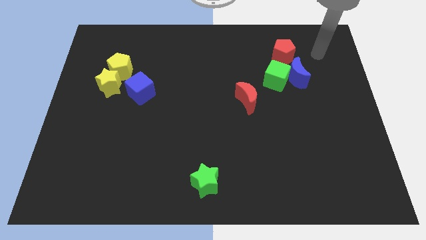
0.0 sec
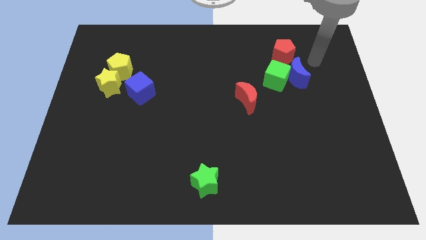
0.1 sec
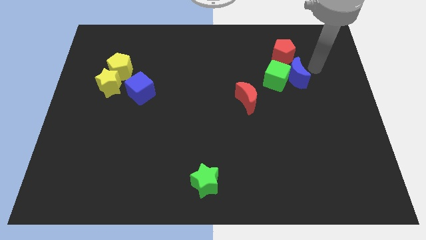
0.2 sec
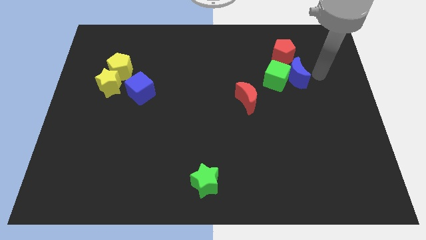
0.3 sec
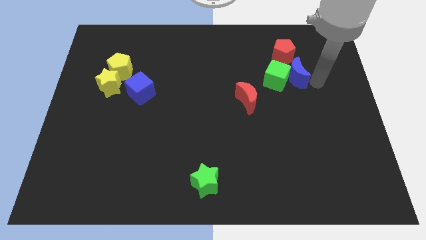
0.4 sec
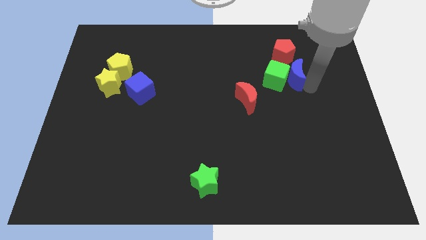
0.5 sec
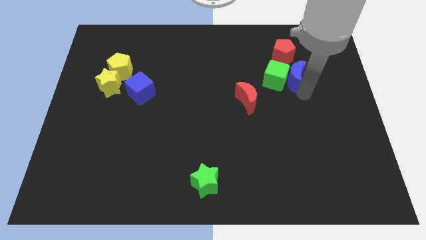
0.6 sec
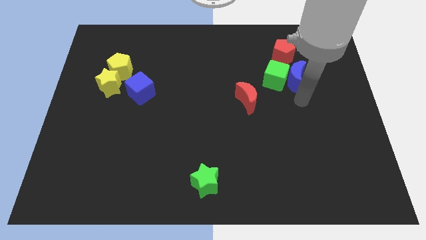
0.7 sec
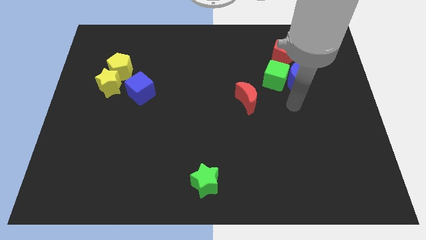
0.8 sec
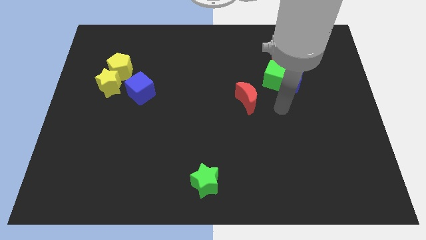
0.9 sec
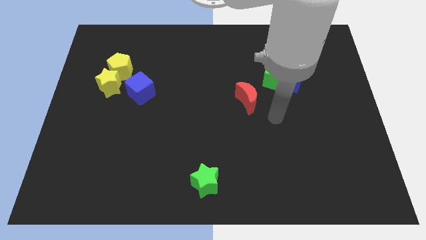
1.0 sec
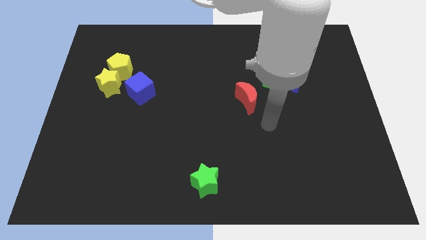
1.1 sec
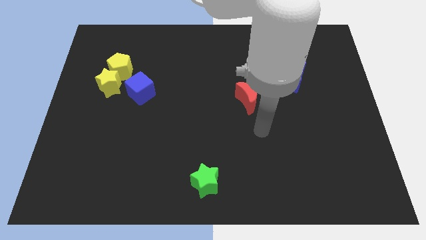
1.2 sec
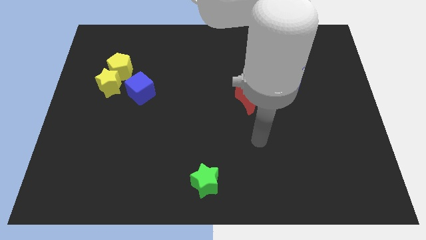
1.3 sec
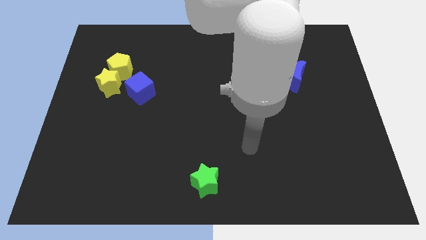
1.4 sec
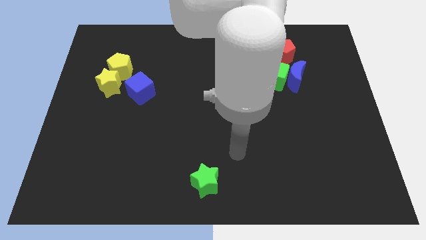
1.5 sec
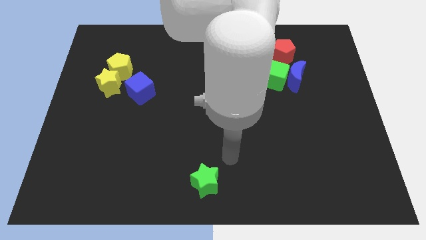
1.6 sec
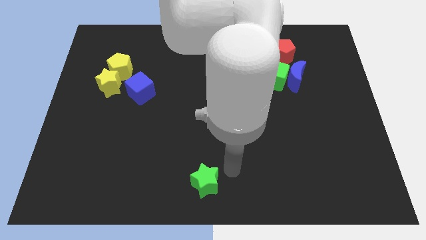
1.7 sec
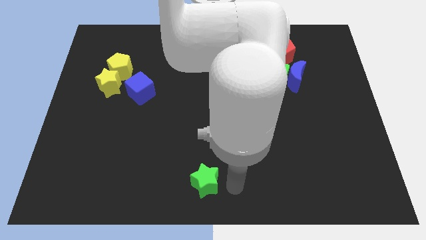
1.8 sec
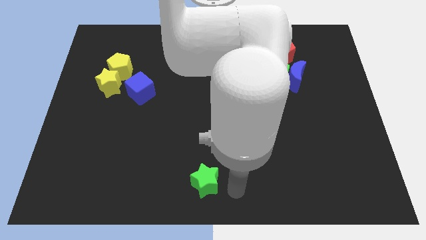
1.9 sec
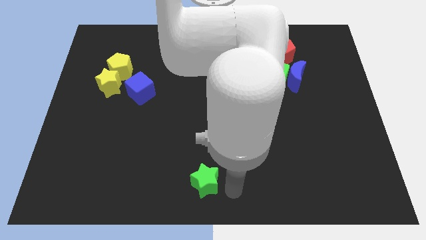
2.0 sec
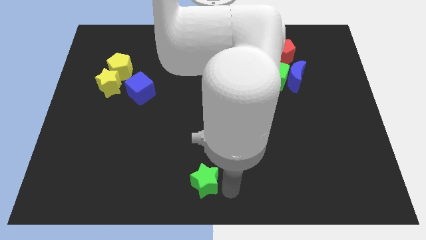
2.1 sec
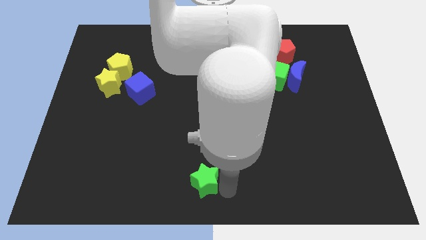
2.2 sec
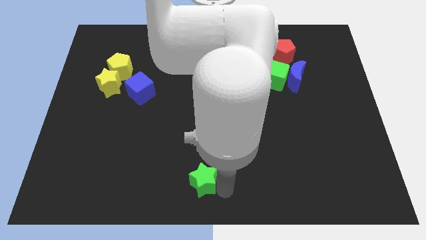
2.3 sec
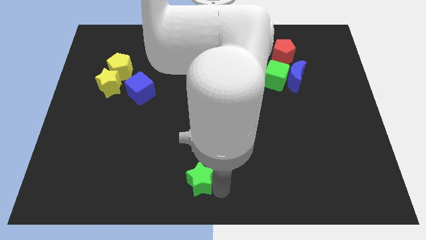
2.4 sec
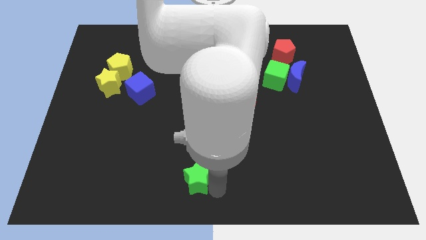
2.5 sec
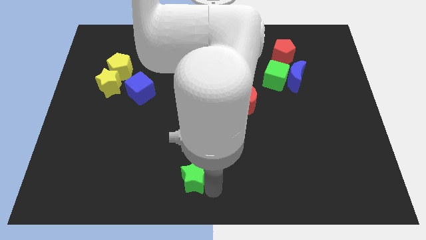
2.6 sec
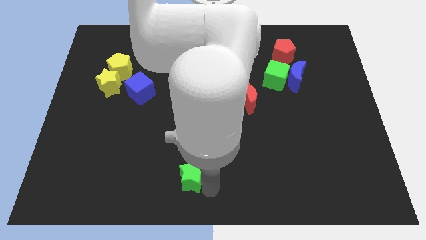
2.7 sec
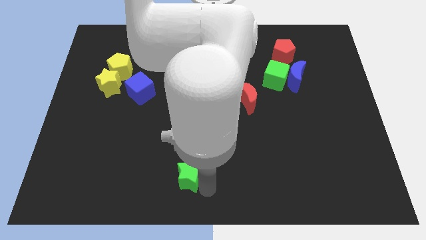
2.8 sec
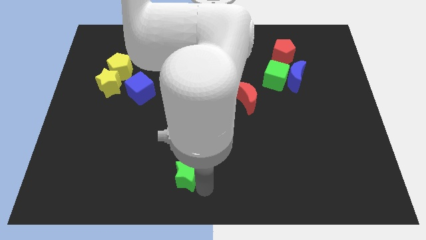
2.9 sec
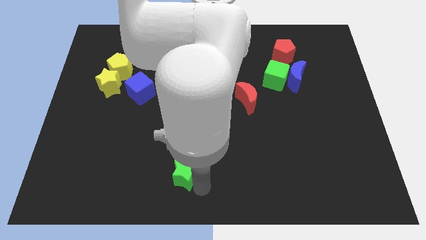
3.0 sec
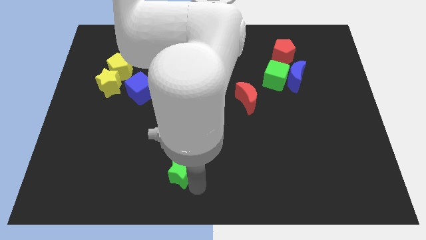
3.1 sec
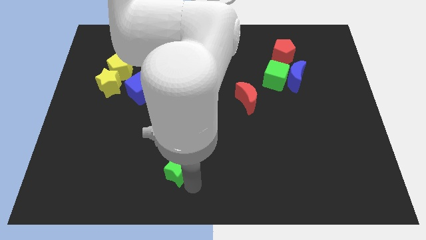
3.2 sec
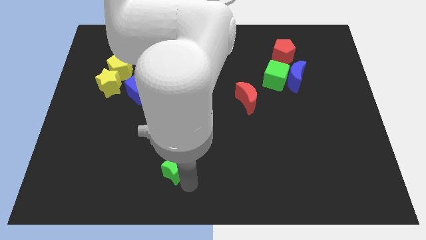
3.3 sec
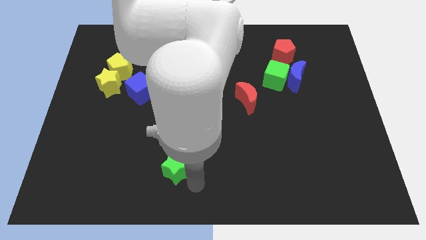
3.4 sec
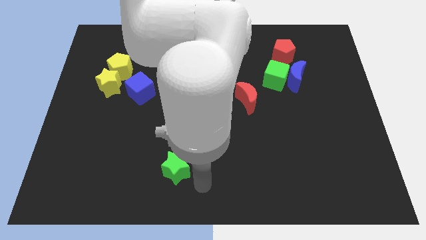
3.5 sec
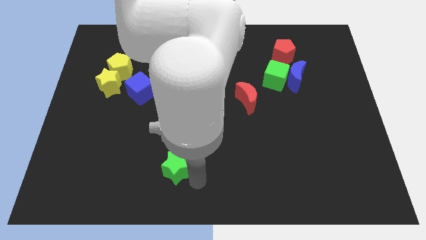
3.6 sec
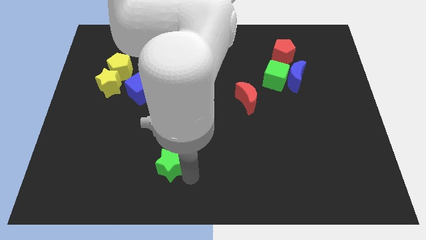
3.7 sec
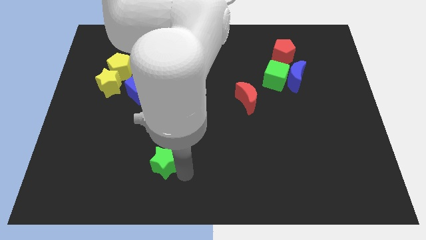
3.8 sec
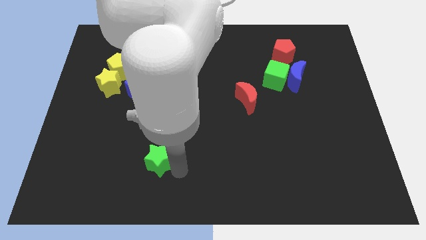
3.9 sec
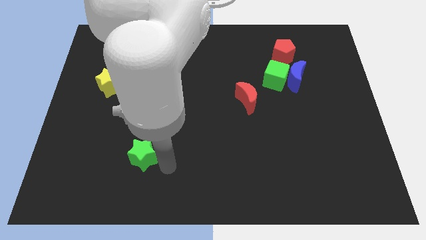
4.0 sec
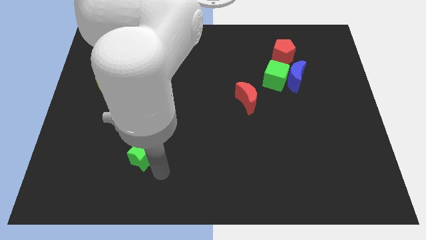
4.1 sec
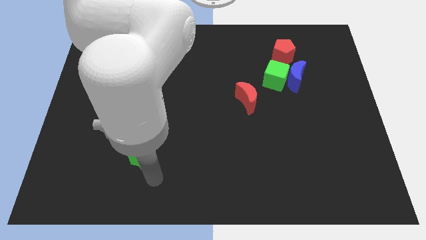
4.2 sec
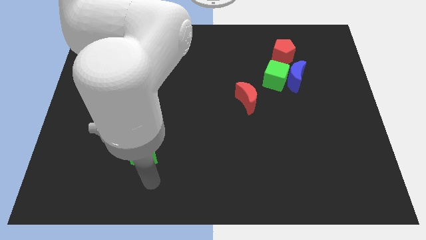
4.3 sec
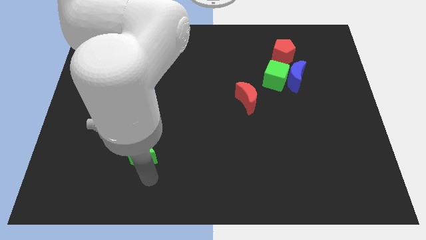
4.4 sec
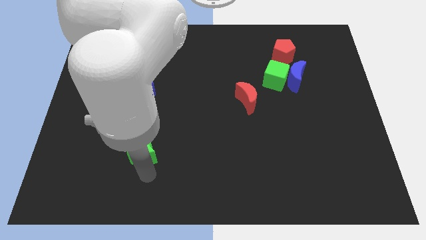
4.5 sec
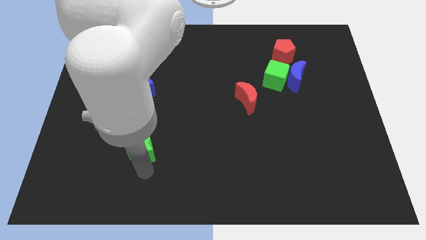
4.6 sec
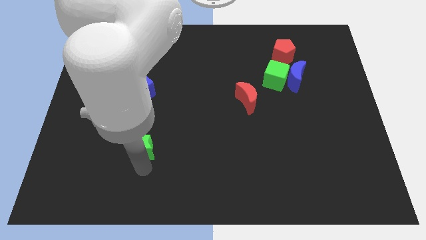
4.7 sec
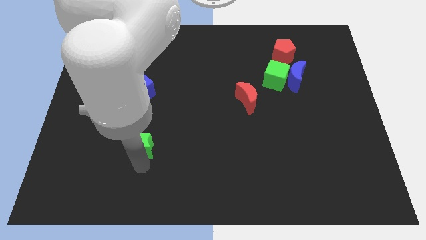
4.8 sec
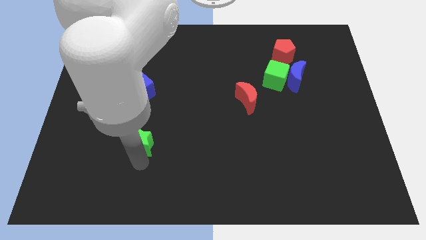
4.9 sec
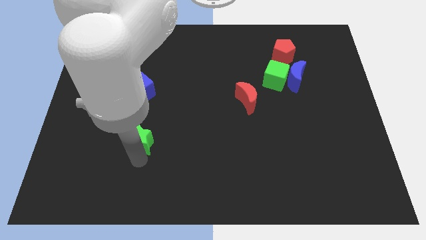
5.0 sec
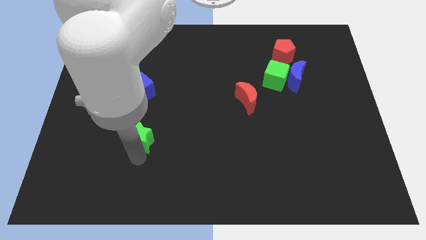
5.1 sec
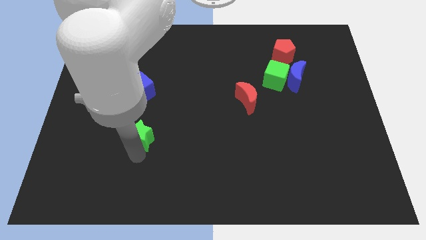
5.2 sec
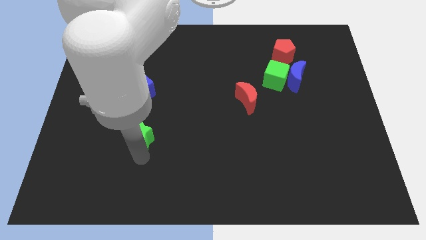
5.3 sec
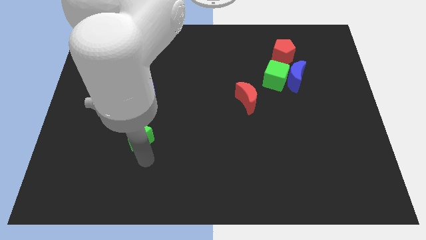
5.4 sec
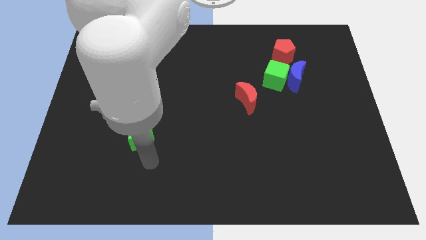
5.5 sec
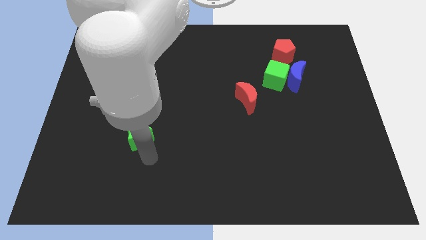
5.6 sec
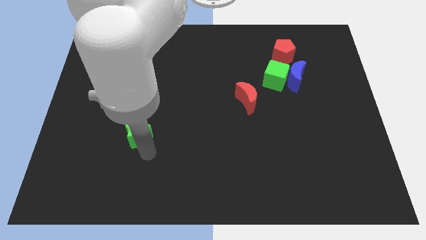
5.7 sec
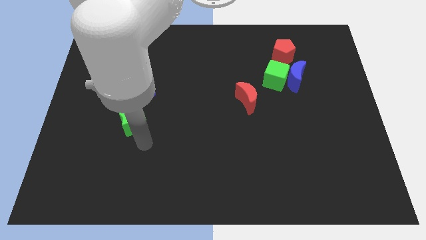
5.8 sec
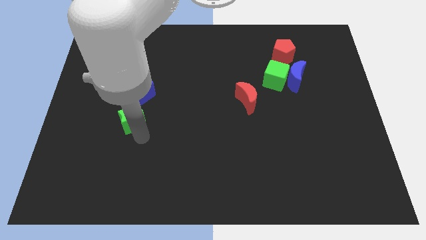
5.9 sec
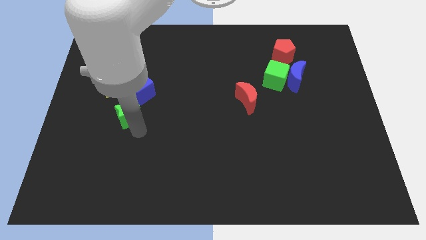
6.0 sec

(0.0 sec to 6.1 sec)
push the green star to the bottom right side of the yellow star
